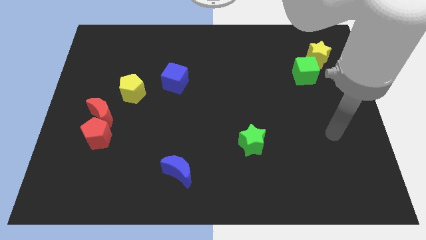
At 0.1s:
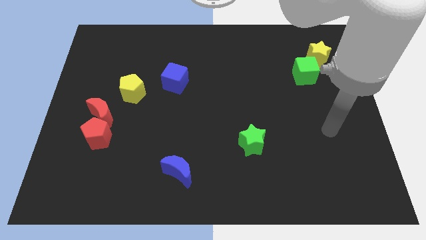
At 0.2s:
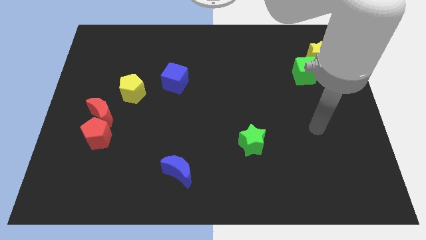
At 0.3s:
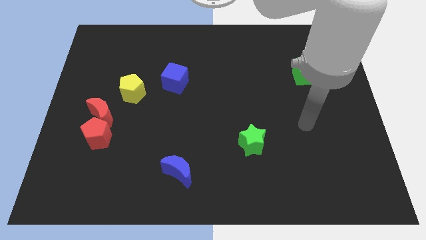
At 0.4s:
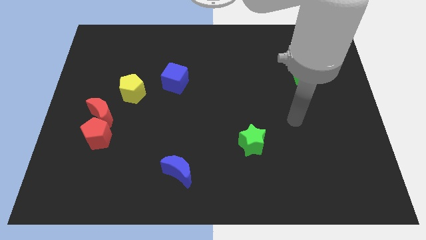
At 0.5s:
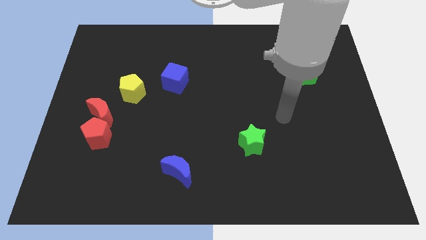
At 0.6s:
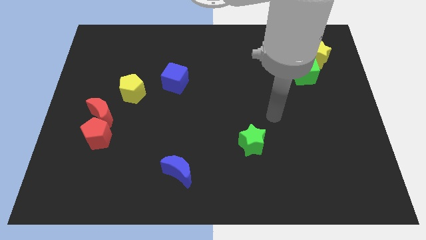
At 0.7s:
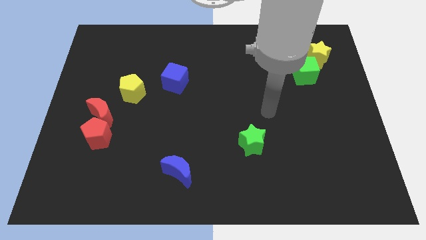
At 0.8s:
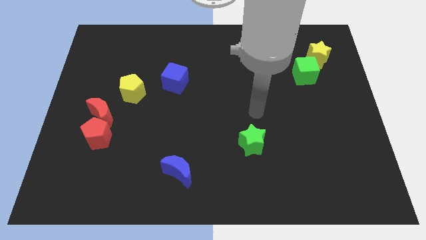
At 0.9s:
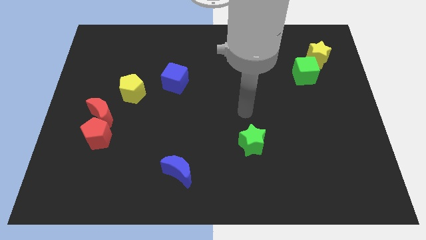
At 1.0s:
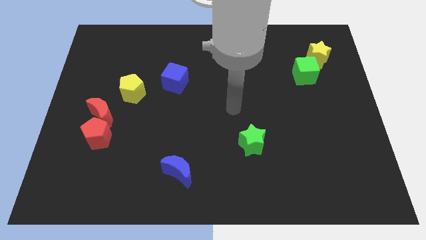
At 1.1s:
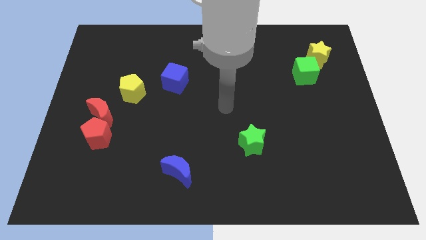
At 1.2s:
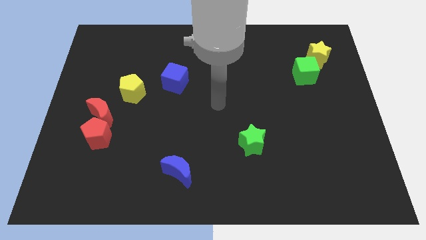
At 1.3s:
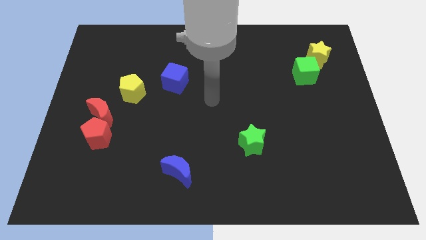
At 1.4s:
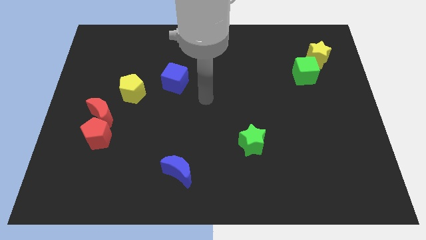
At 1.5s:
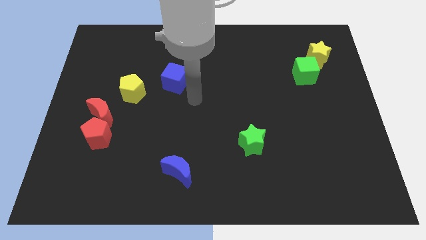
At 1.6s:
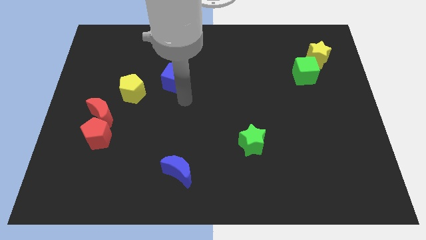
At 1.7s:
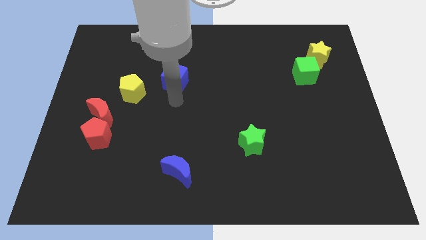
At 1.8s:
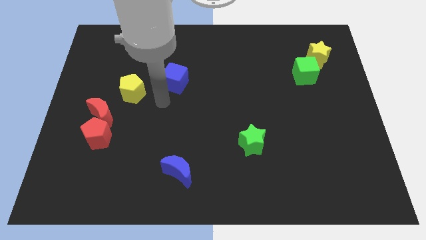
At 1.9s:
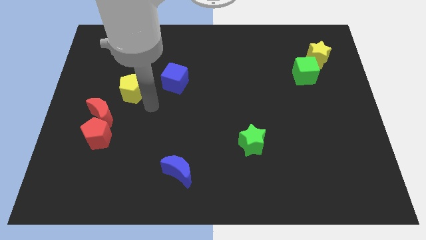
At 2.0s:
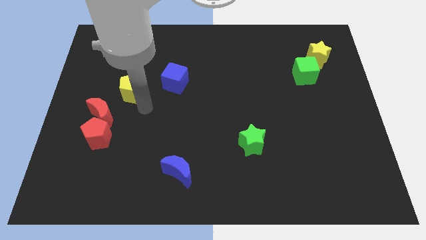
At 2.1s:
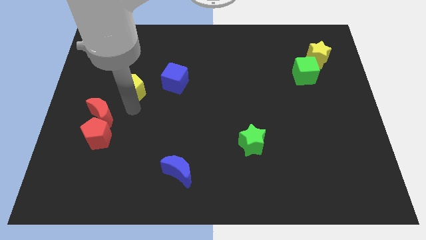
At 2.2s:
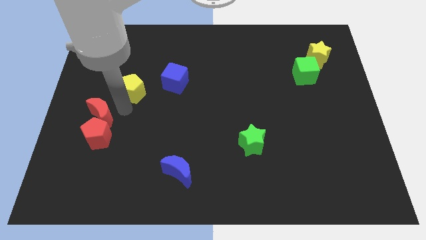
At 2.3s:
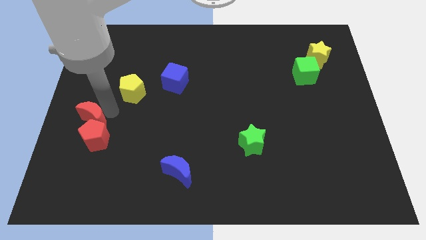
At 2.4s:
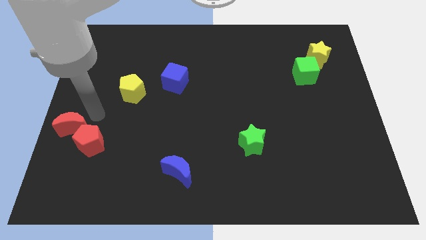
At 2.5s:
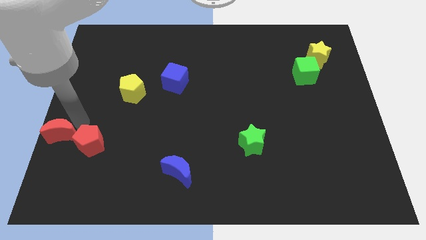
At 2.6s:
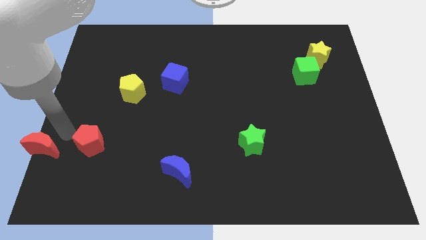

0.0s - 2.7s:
separate the red pentagon from the red moon

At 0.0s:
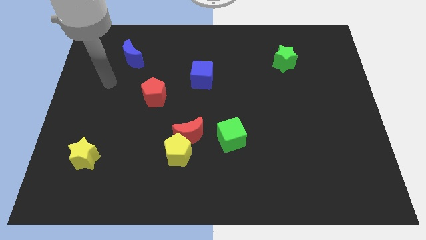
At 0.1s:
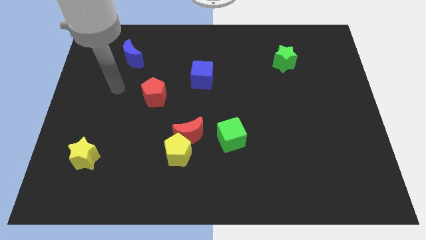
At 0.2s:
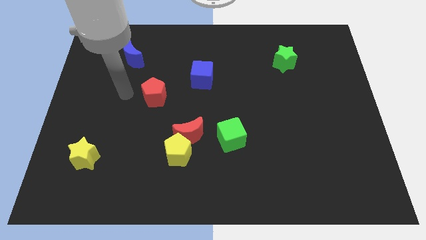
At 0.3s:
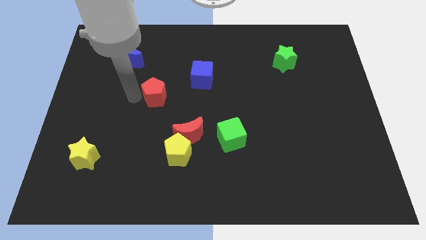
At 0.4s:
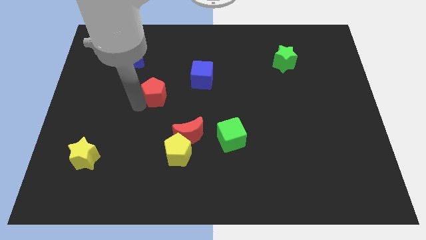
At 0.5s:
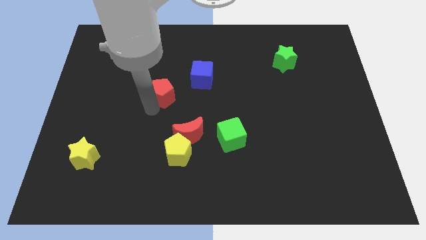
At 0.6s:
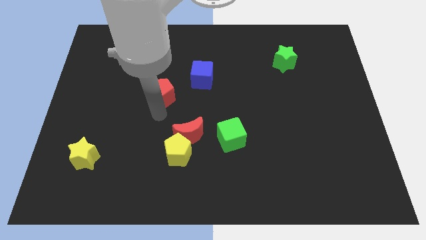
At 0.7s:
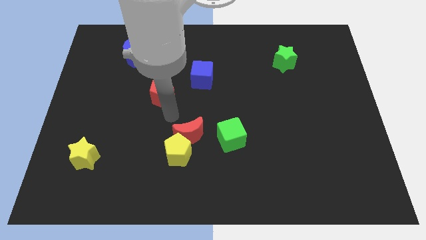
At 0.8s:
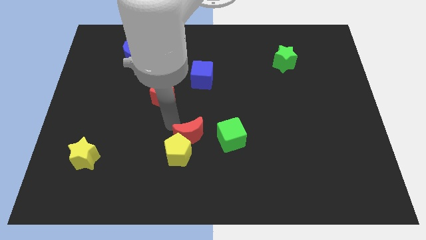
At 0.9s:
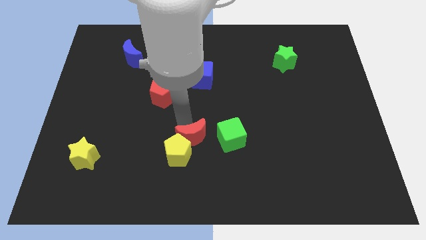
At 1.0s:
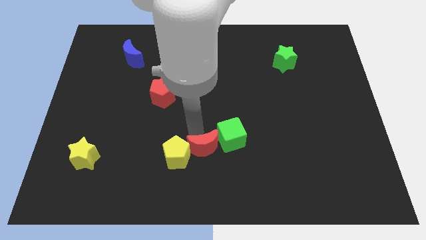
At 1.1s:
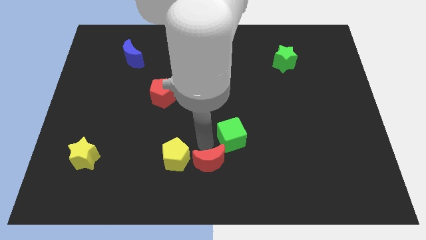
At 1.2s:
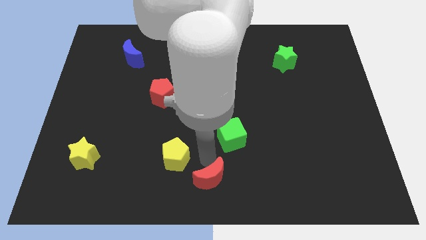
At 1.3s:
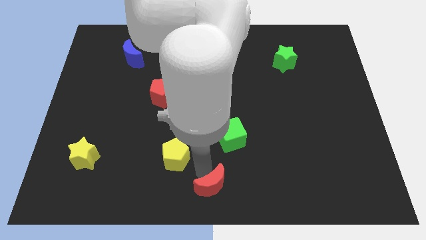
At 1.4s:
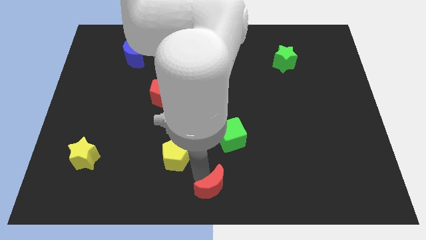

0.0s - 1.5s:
separate the yellow pentagon from the red moon

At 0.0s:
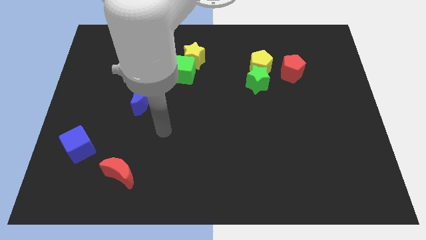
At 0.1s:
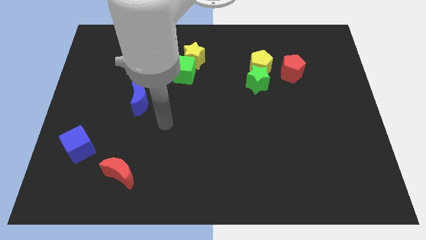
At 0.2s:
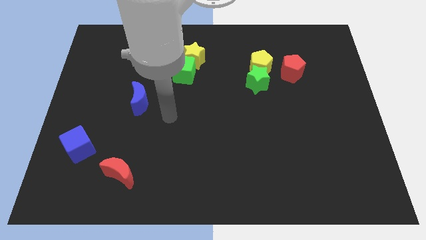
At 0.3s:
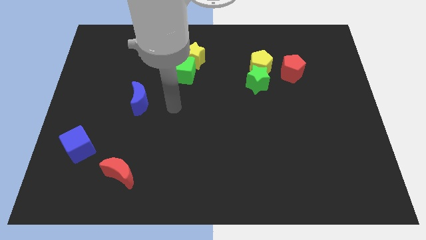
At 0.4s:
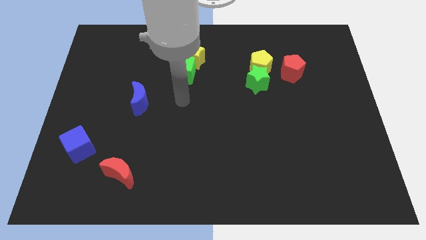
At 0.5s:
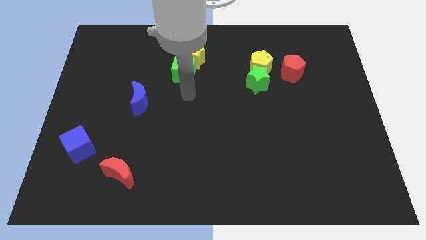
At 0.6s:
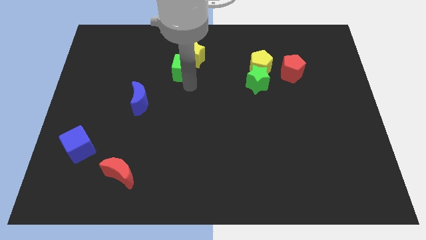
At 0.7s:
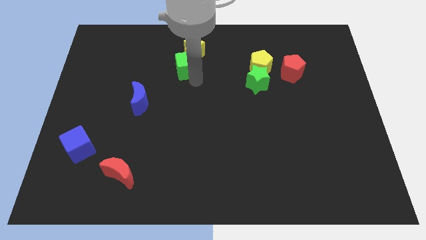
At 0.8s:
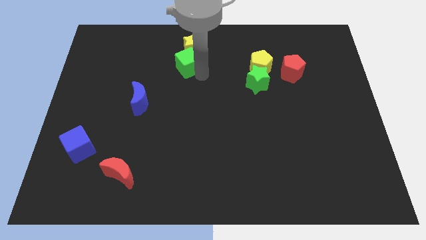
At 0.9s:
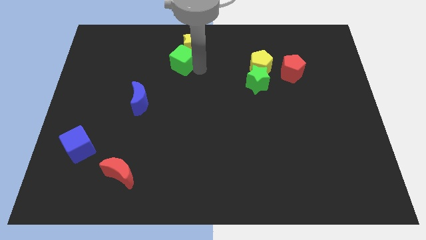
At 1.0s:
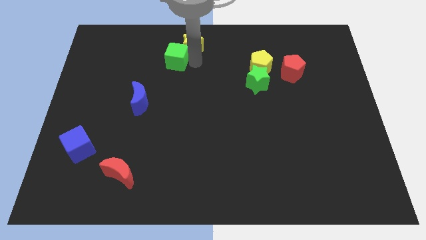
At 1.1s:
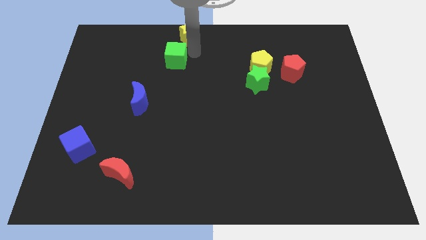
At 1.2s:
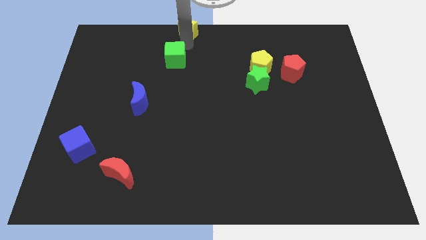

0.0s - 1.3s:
pull the green cube apart from the yellow star

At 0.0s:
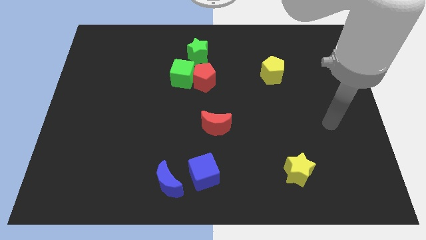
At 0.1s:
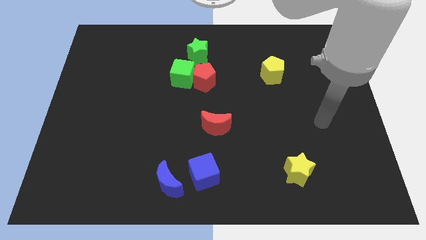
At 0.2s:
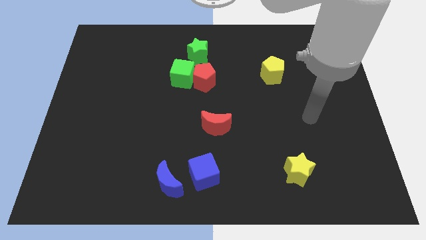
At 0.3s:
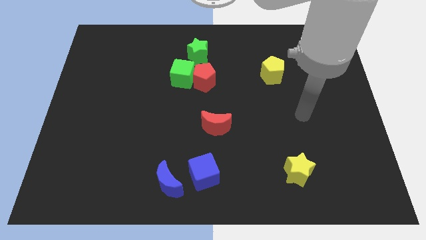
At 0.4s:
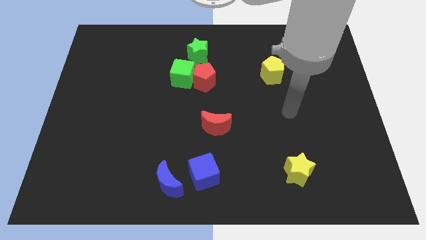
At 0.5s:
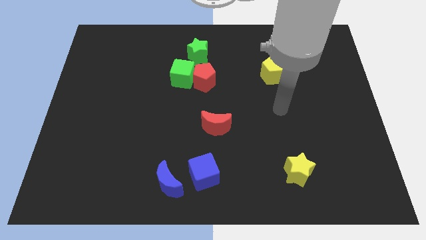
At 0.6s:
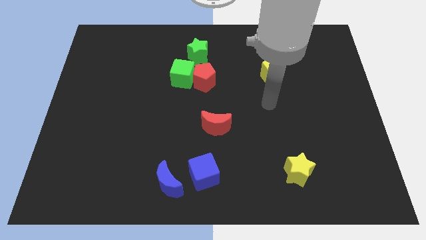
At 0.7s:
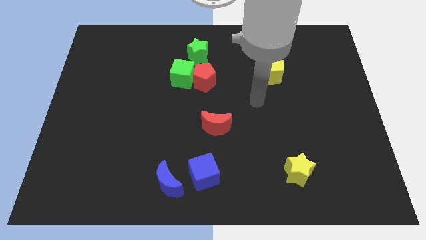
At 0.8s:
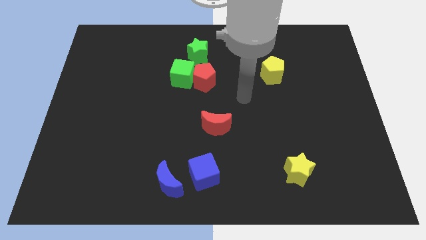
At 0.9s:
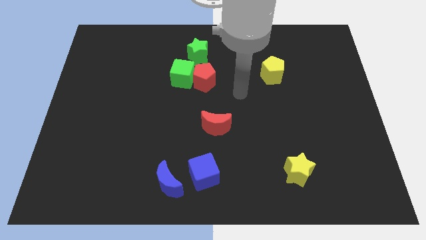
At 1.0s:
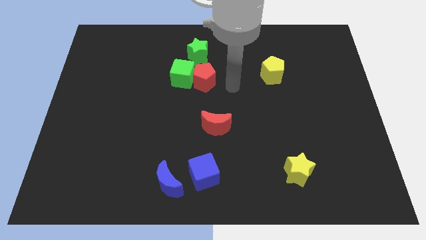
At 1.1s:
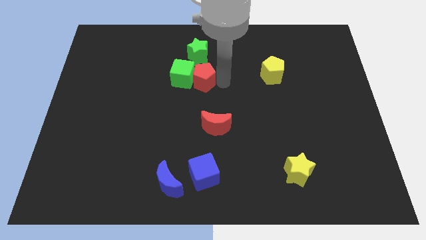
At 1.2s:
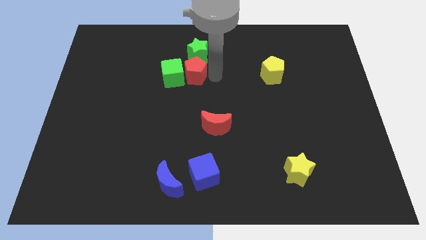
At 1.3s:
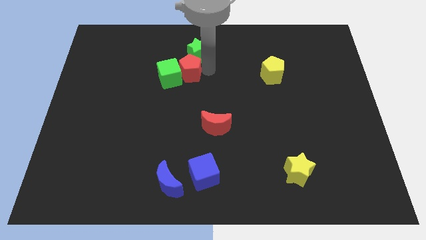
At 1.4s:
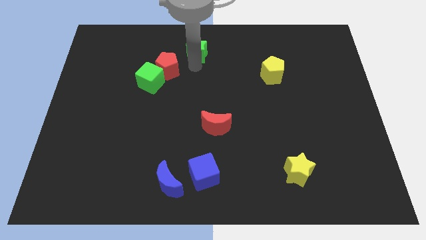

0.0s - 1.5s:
move the green cube away from the red pentagon and green star

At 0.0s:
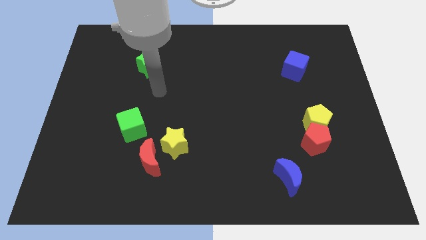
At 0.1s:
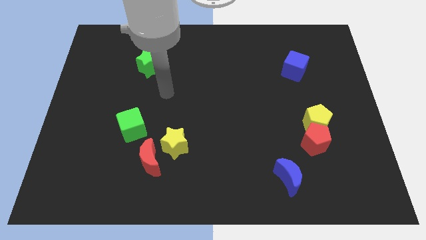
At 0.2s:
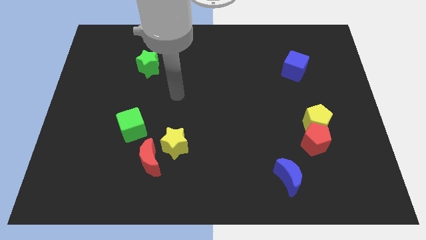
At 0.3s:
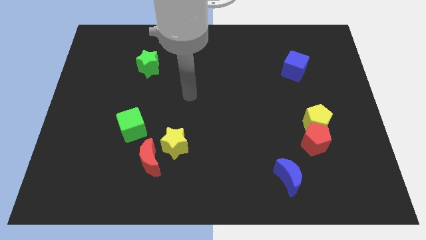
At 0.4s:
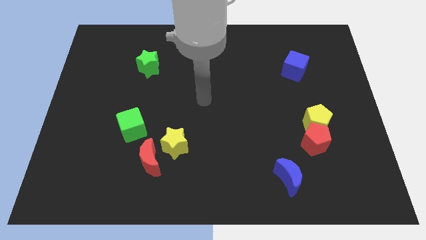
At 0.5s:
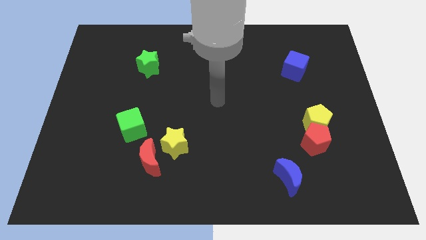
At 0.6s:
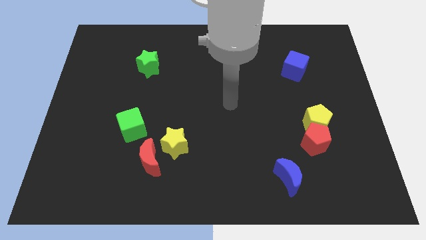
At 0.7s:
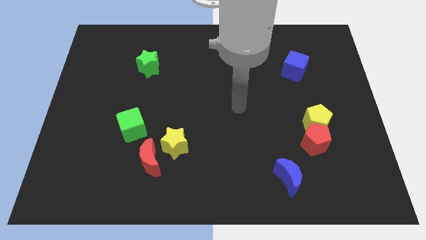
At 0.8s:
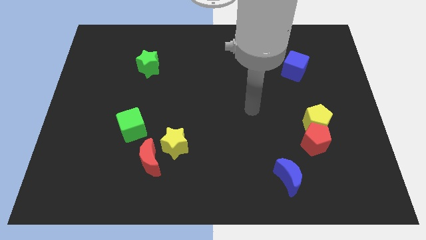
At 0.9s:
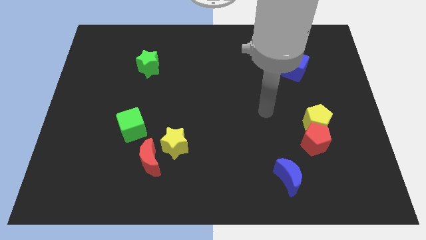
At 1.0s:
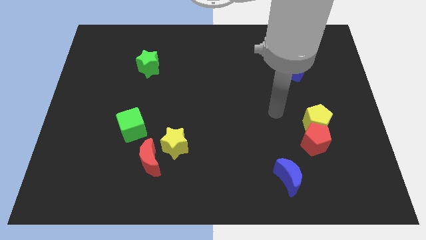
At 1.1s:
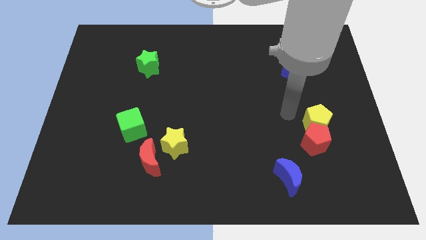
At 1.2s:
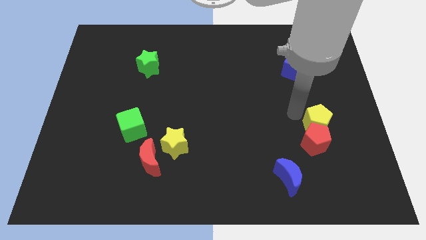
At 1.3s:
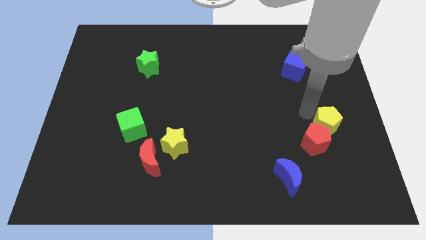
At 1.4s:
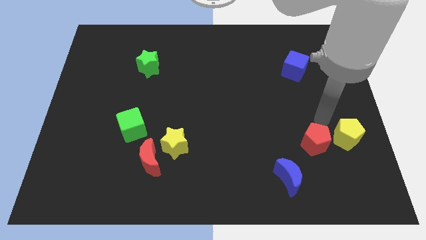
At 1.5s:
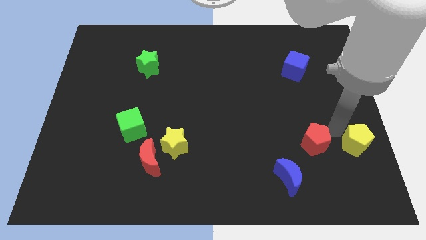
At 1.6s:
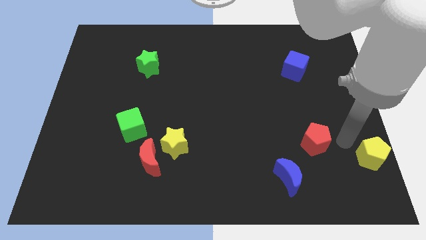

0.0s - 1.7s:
move the red pentagon away from the yellow pentagon

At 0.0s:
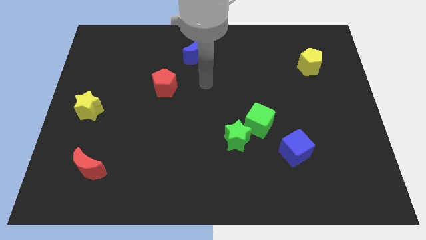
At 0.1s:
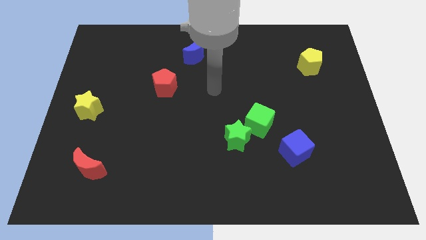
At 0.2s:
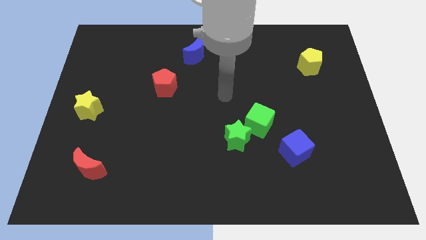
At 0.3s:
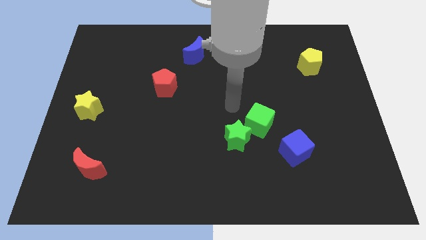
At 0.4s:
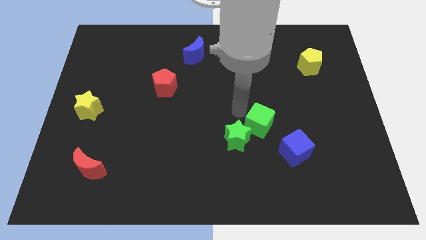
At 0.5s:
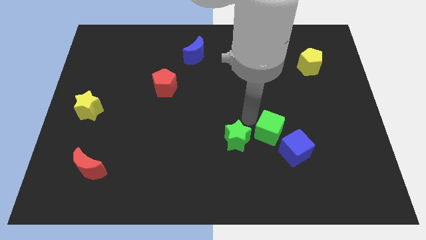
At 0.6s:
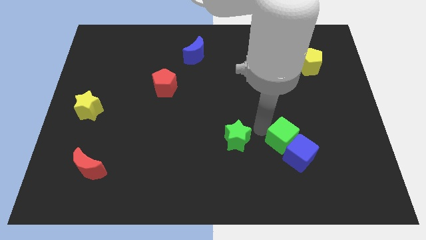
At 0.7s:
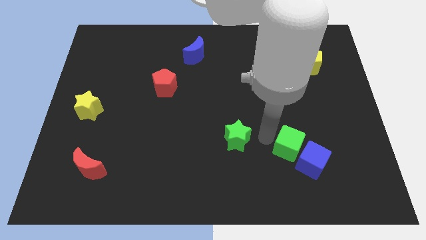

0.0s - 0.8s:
pull the green star apart from the green cube
